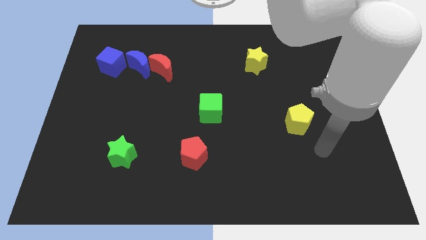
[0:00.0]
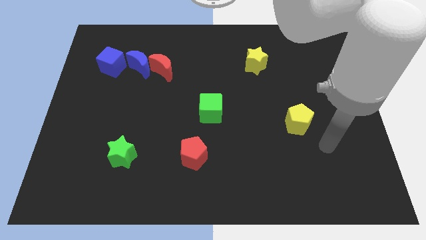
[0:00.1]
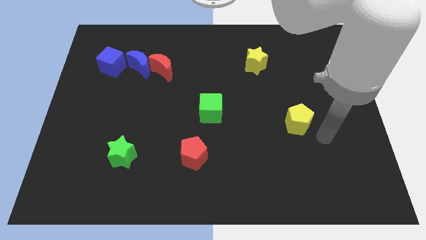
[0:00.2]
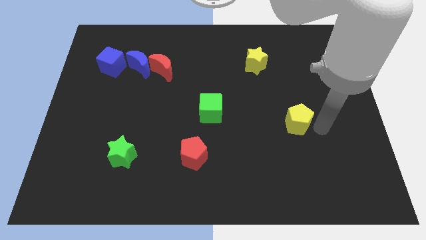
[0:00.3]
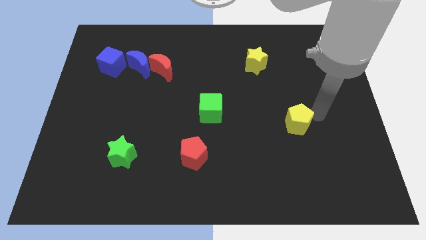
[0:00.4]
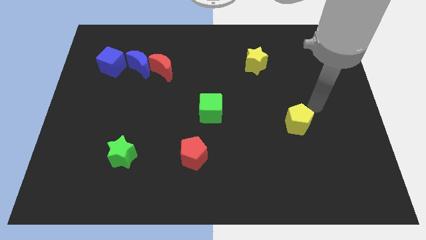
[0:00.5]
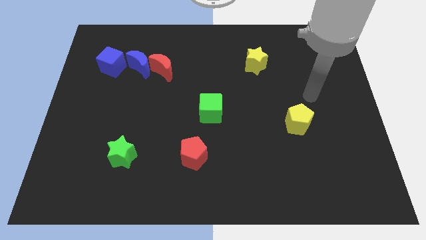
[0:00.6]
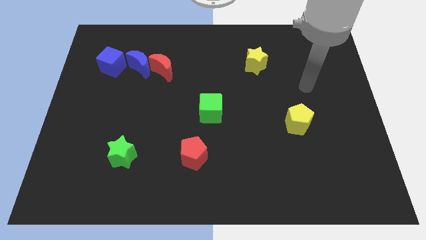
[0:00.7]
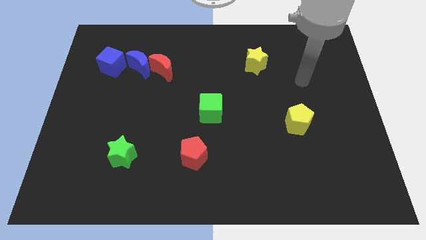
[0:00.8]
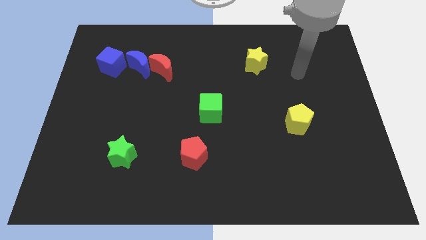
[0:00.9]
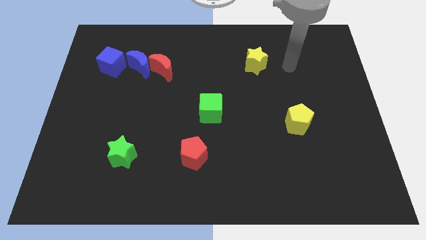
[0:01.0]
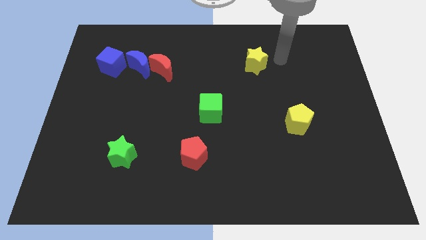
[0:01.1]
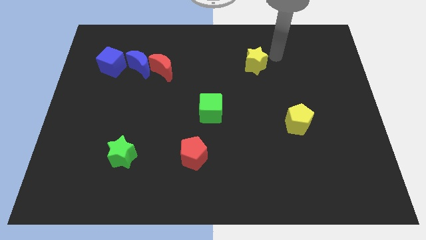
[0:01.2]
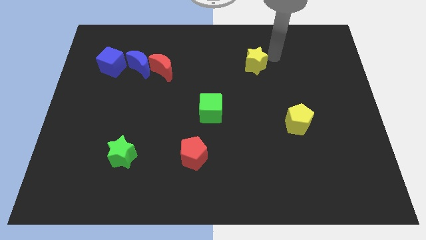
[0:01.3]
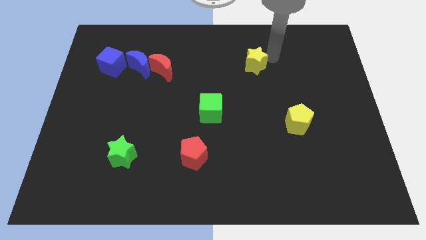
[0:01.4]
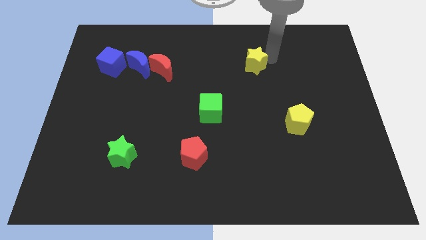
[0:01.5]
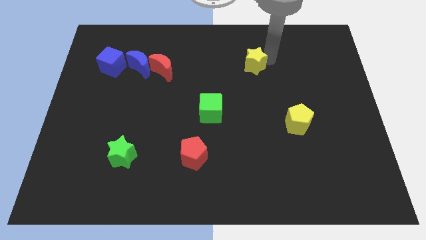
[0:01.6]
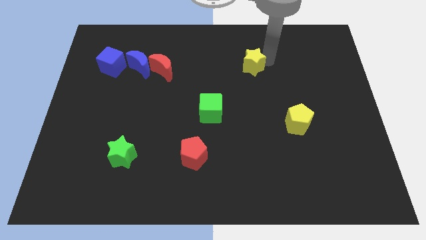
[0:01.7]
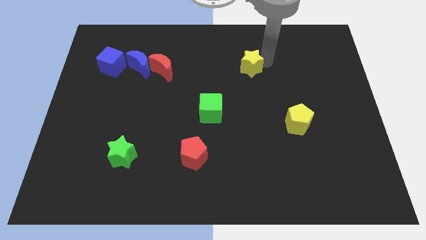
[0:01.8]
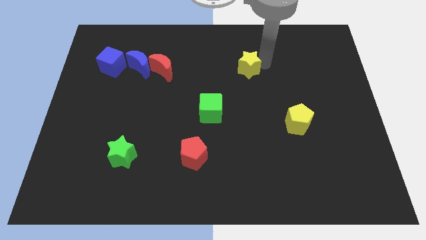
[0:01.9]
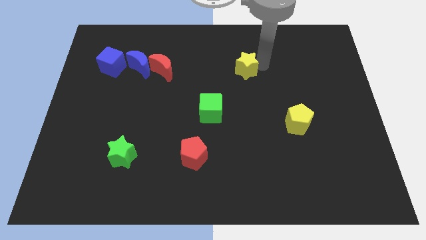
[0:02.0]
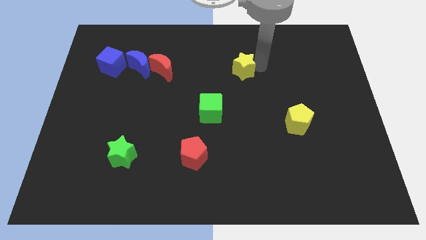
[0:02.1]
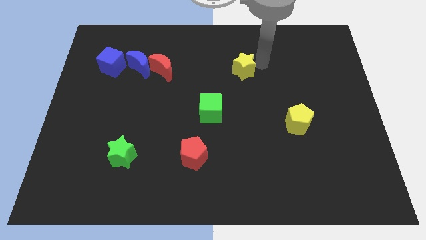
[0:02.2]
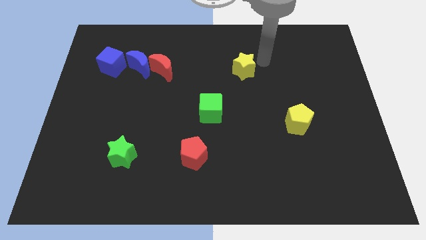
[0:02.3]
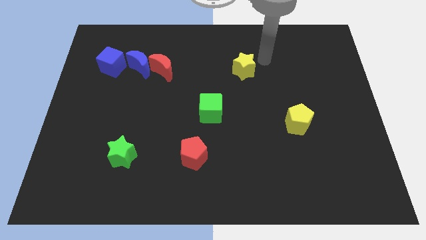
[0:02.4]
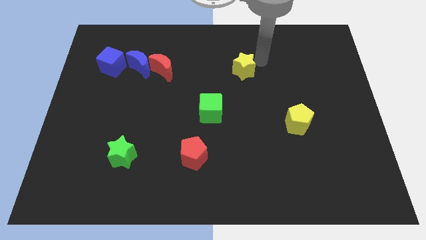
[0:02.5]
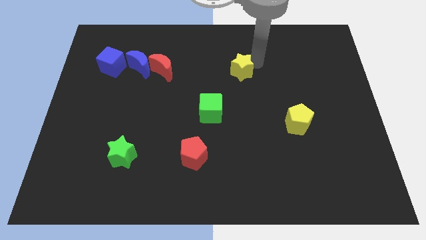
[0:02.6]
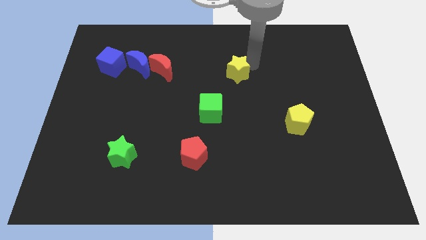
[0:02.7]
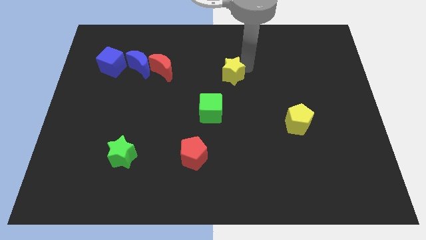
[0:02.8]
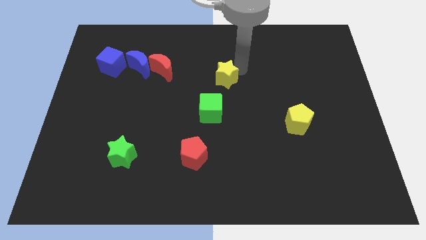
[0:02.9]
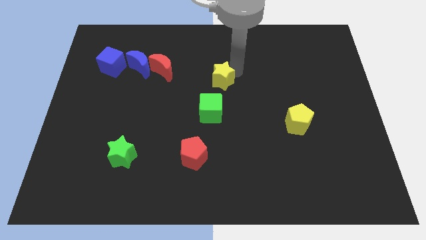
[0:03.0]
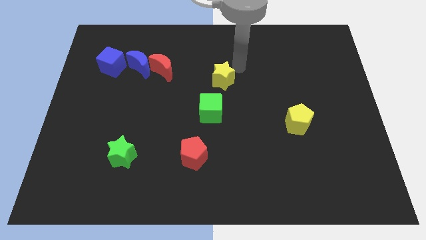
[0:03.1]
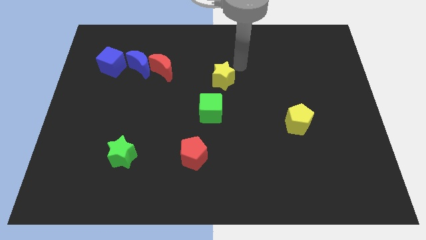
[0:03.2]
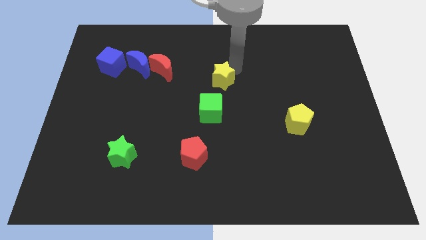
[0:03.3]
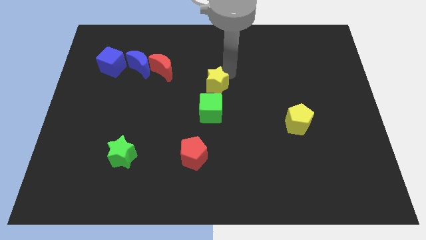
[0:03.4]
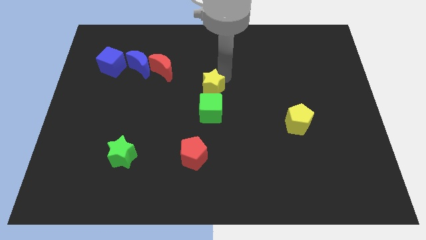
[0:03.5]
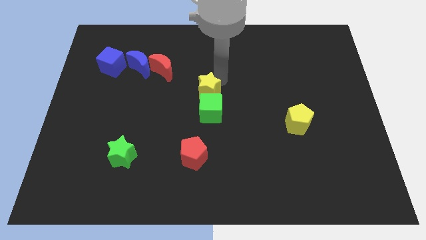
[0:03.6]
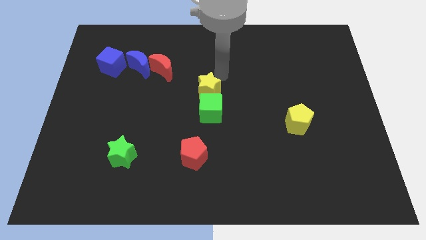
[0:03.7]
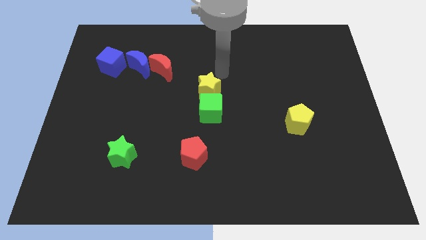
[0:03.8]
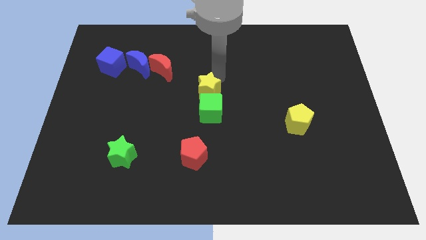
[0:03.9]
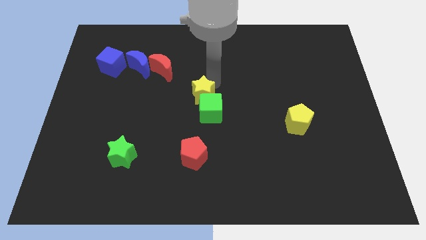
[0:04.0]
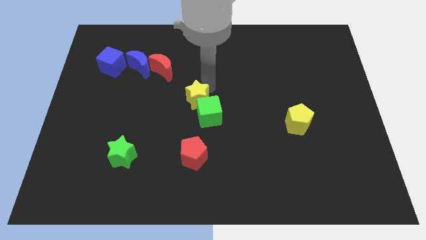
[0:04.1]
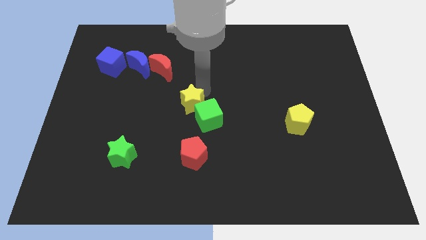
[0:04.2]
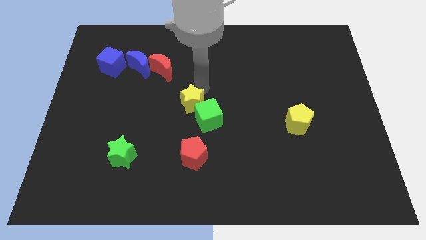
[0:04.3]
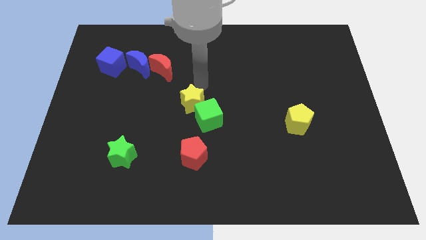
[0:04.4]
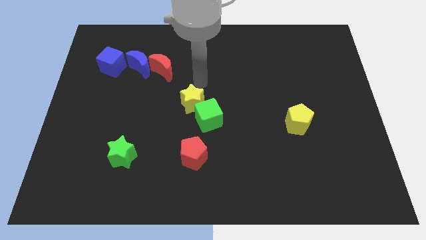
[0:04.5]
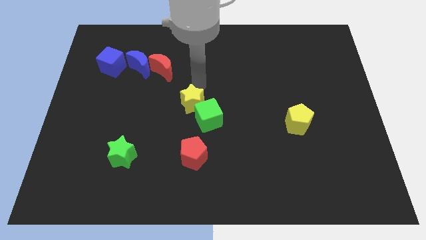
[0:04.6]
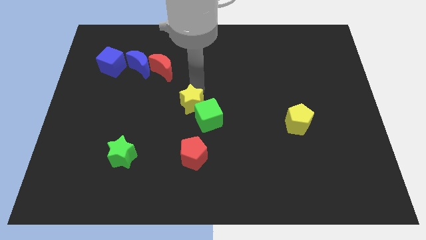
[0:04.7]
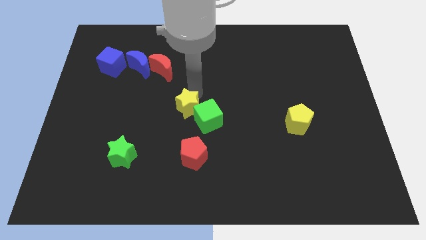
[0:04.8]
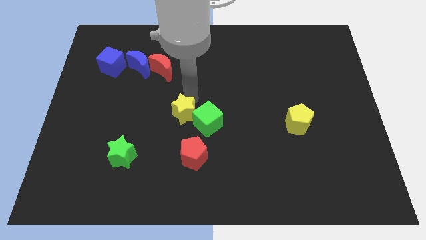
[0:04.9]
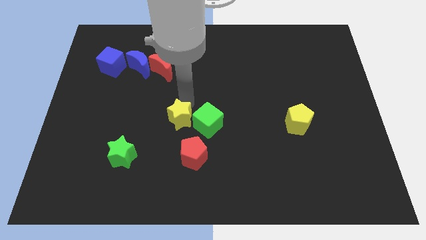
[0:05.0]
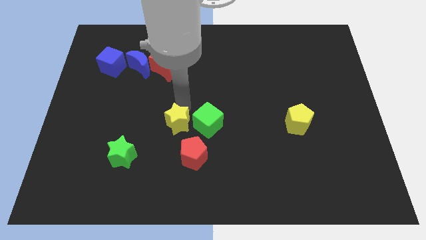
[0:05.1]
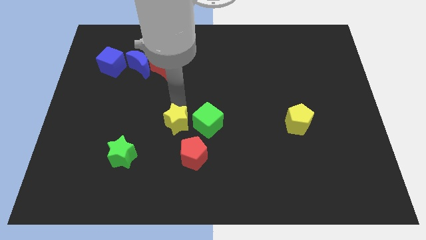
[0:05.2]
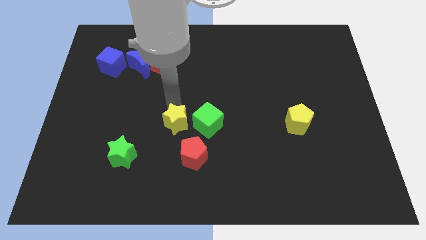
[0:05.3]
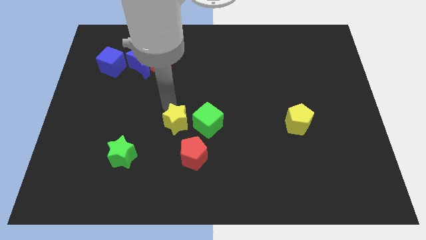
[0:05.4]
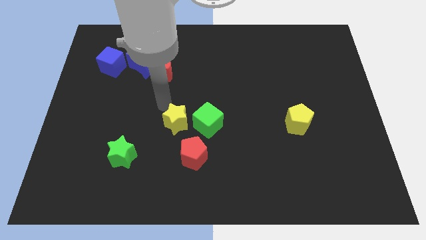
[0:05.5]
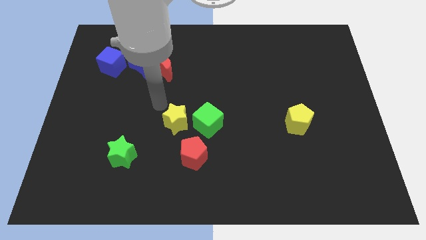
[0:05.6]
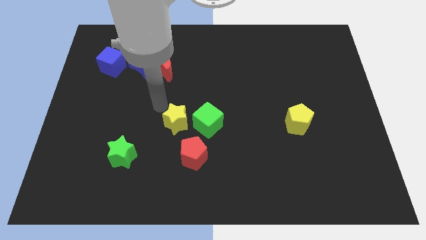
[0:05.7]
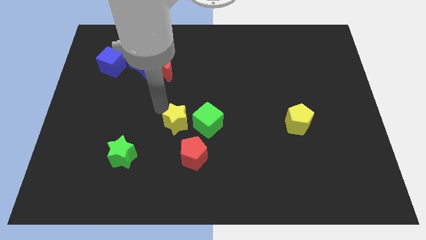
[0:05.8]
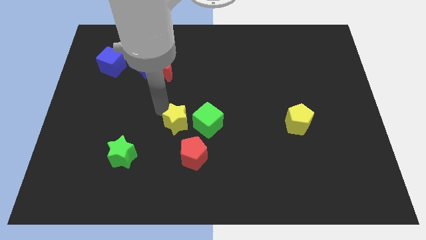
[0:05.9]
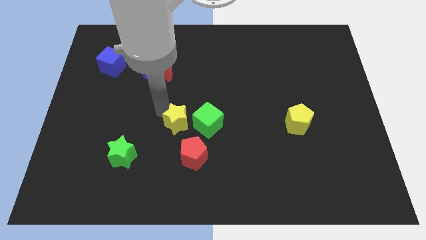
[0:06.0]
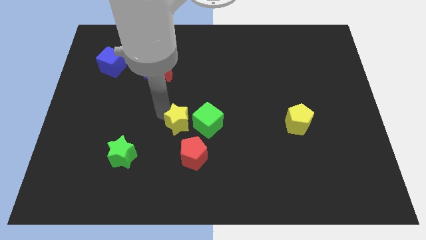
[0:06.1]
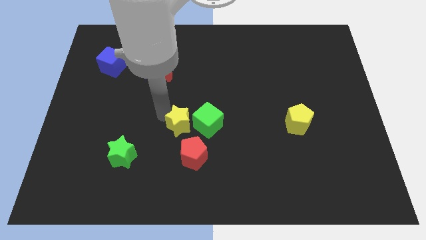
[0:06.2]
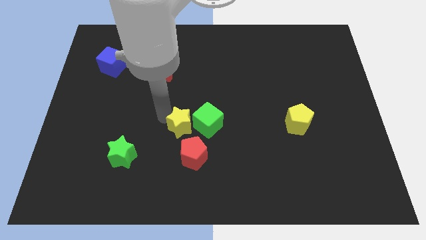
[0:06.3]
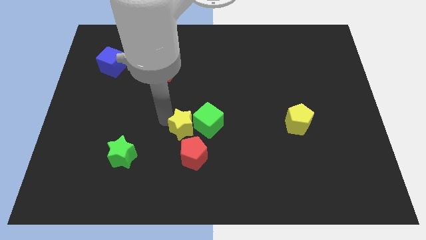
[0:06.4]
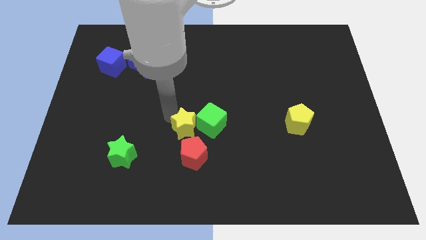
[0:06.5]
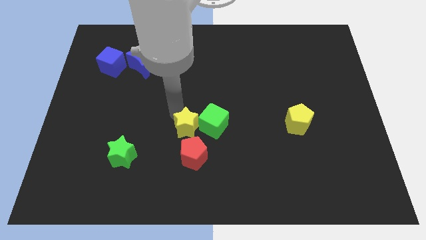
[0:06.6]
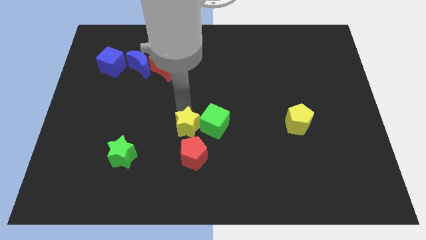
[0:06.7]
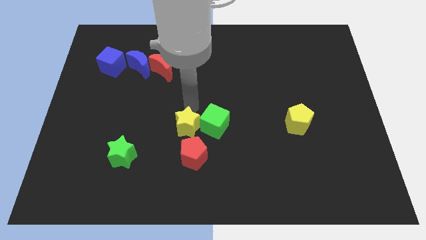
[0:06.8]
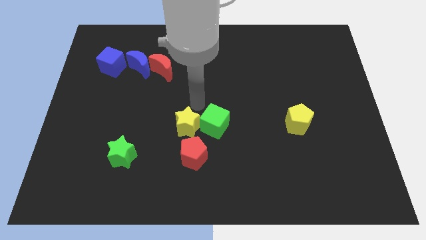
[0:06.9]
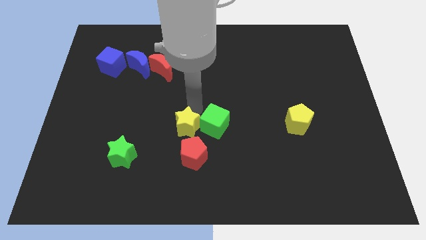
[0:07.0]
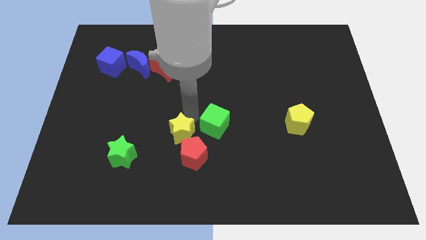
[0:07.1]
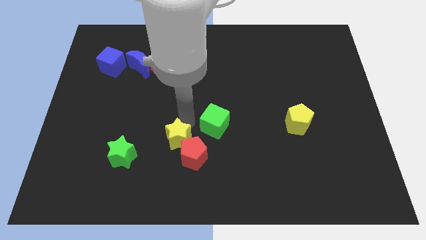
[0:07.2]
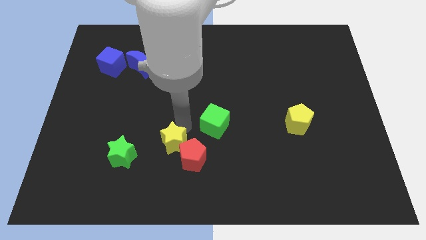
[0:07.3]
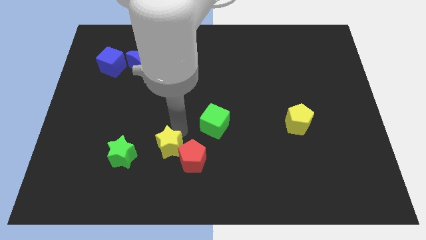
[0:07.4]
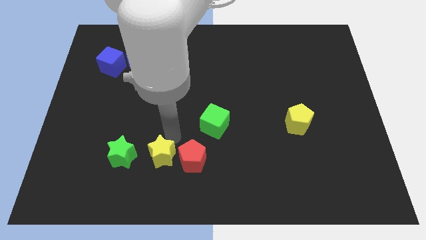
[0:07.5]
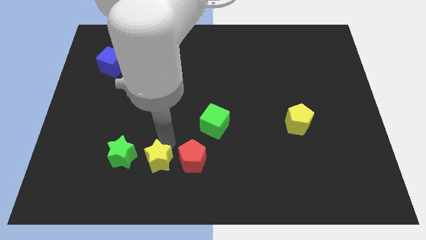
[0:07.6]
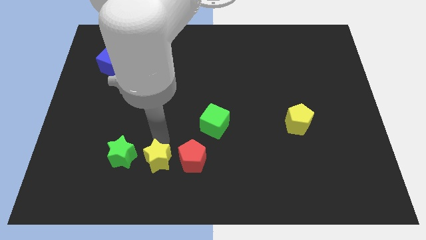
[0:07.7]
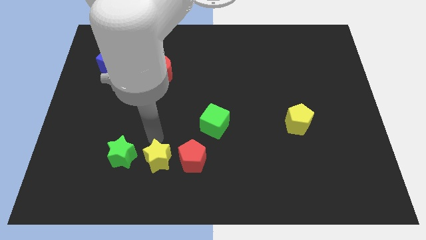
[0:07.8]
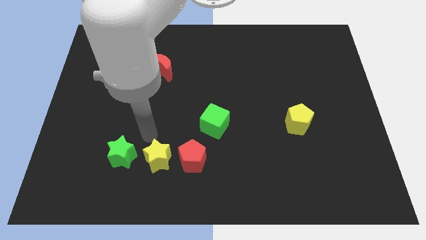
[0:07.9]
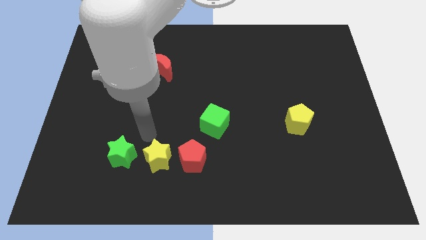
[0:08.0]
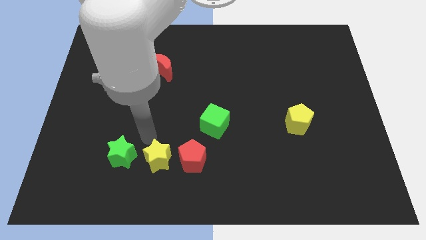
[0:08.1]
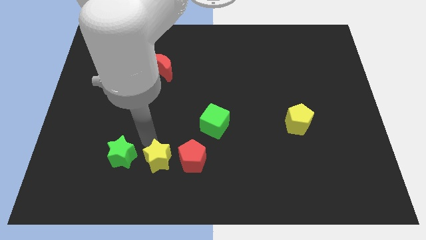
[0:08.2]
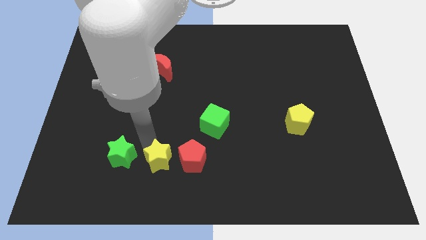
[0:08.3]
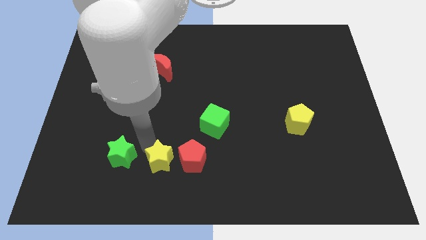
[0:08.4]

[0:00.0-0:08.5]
move the yellow star to the bottom left of the red pentagon
